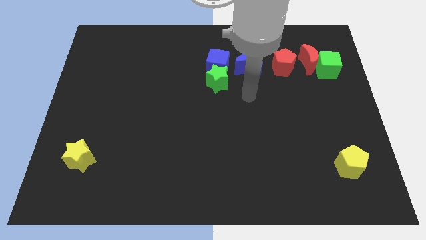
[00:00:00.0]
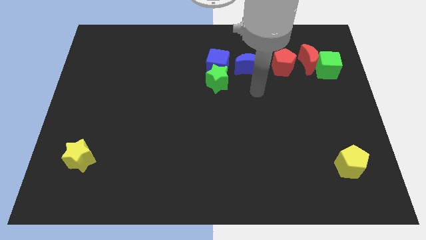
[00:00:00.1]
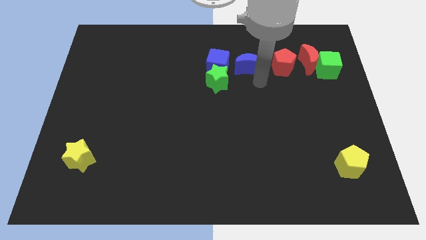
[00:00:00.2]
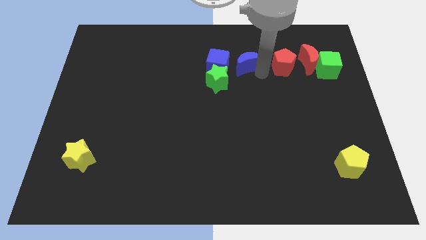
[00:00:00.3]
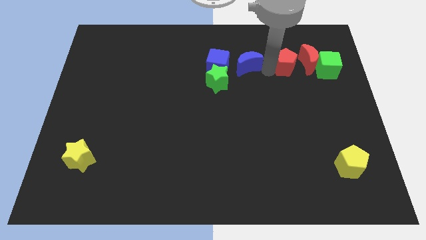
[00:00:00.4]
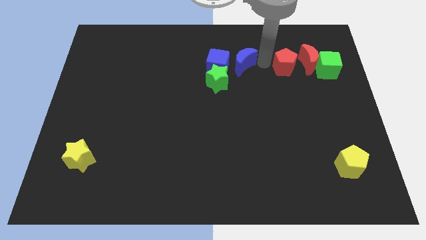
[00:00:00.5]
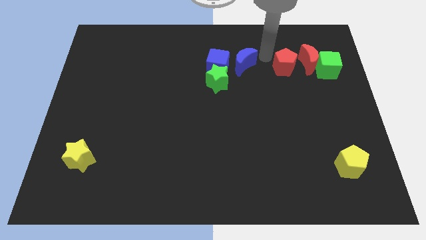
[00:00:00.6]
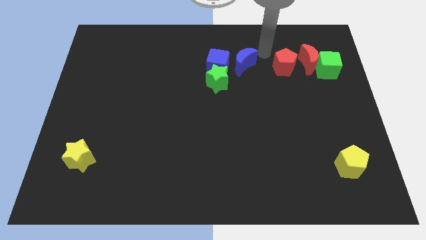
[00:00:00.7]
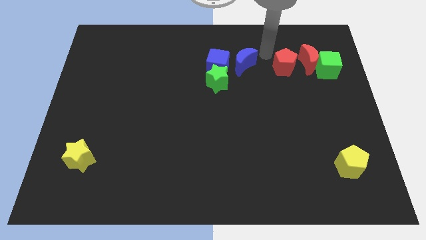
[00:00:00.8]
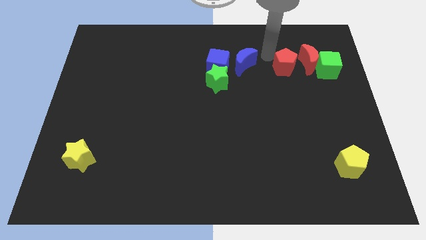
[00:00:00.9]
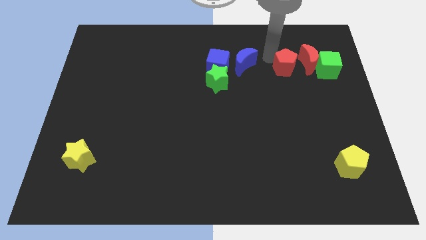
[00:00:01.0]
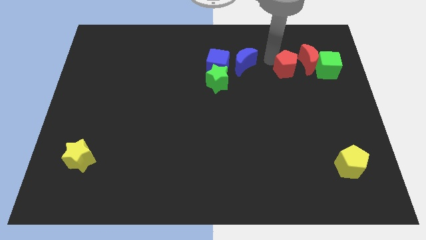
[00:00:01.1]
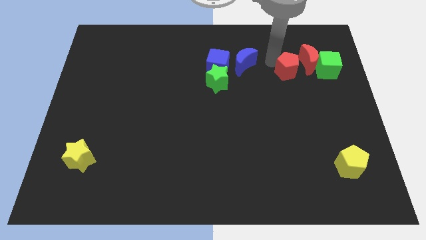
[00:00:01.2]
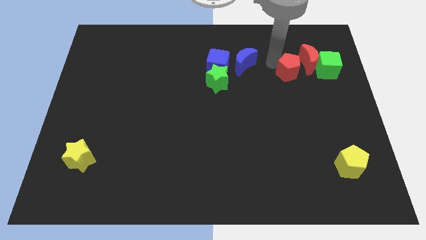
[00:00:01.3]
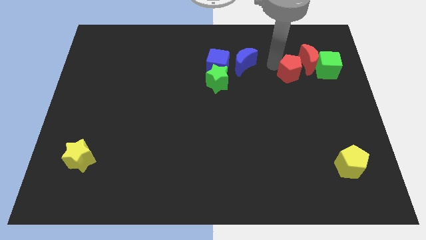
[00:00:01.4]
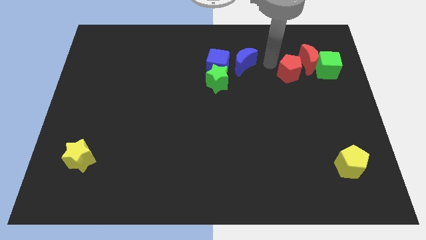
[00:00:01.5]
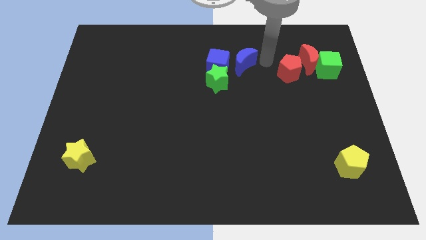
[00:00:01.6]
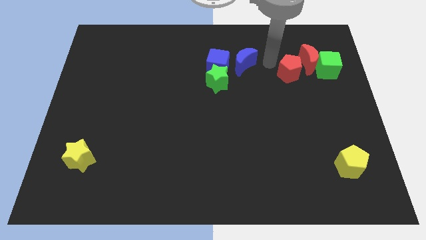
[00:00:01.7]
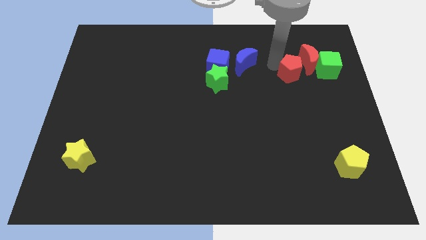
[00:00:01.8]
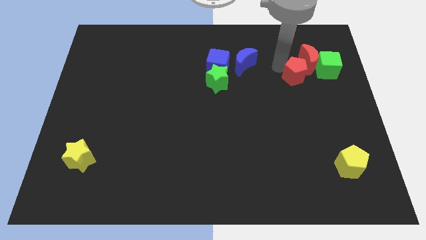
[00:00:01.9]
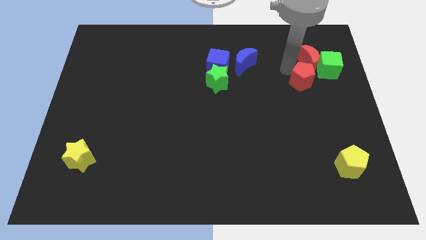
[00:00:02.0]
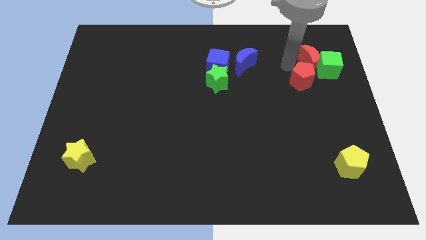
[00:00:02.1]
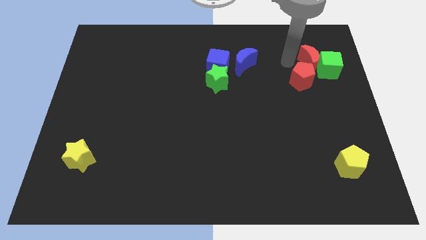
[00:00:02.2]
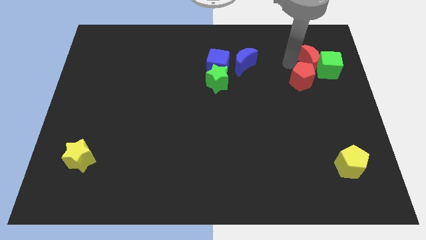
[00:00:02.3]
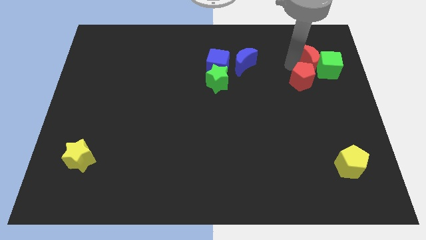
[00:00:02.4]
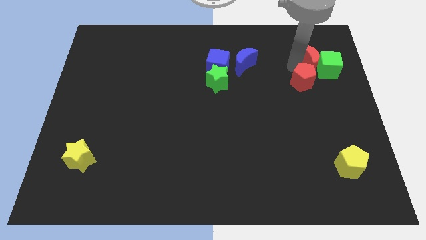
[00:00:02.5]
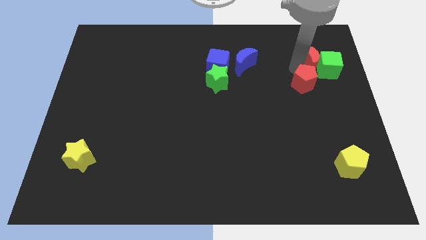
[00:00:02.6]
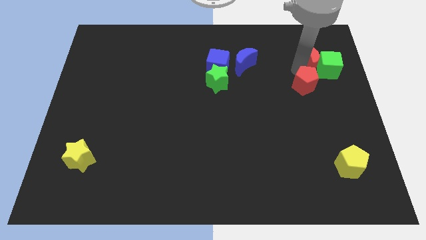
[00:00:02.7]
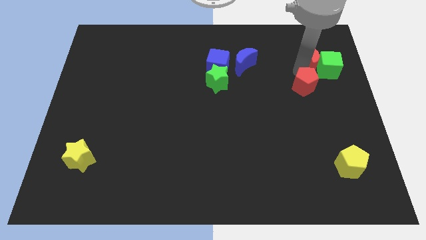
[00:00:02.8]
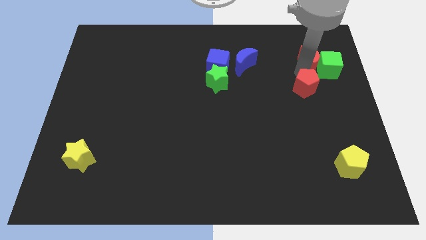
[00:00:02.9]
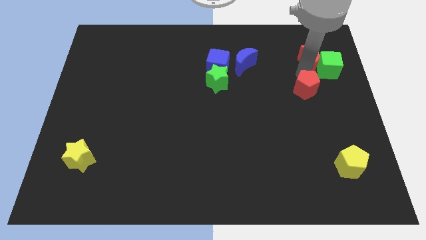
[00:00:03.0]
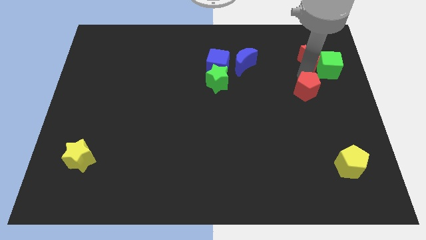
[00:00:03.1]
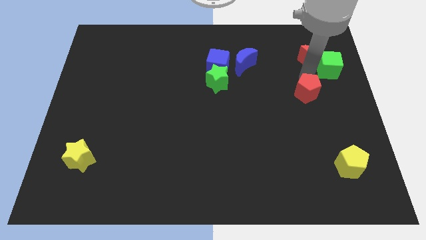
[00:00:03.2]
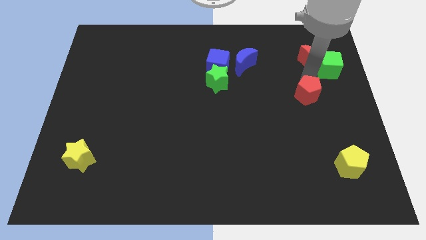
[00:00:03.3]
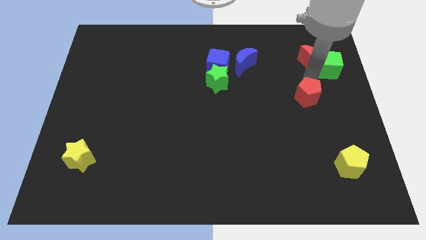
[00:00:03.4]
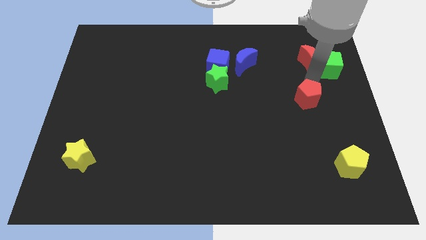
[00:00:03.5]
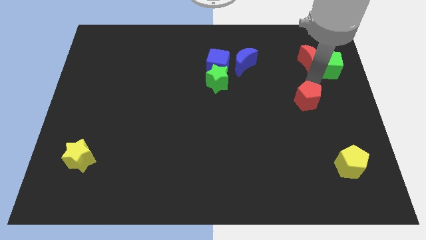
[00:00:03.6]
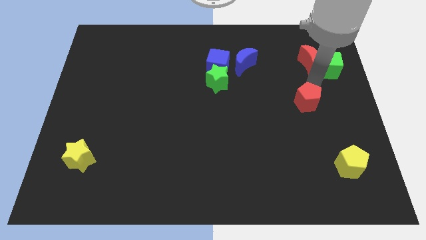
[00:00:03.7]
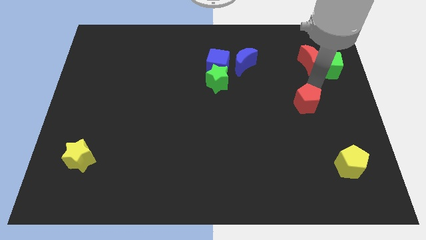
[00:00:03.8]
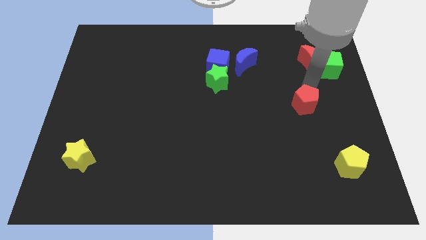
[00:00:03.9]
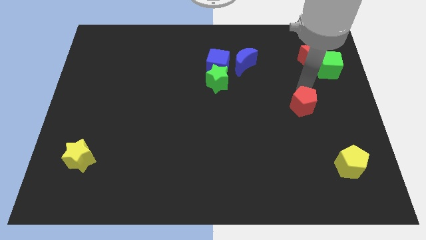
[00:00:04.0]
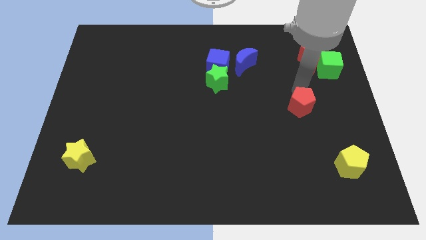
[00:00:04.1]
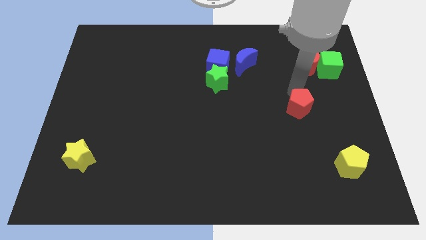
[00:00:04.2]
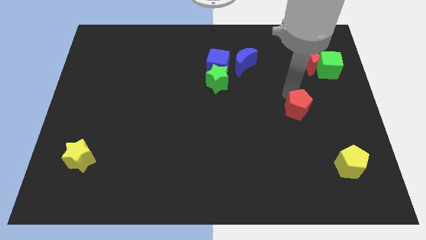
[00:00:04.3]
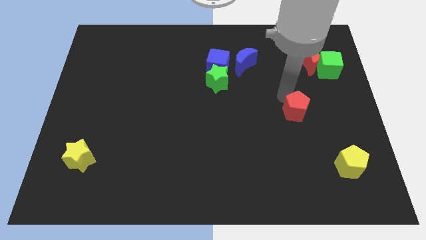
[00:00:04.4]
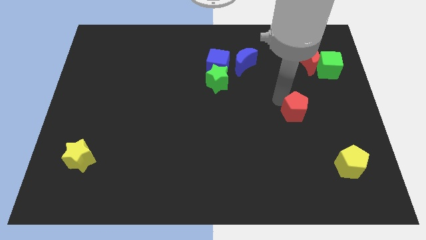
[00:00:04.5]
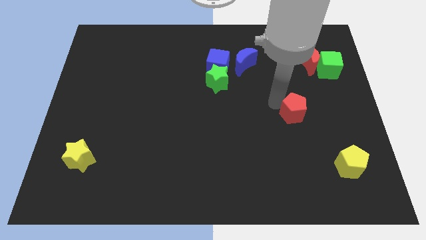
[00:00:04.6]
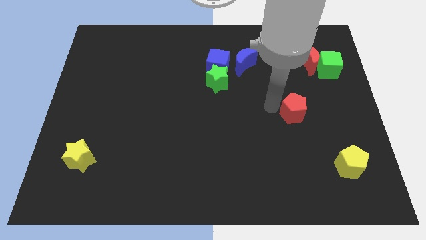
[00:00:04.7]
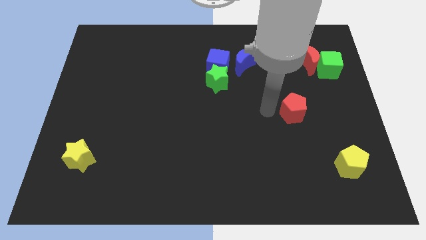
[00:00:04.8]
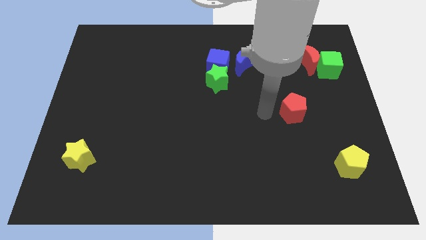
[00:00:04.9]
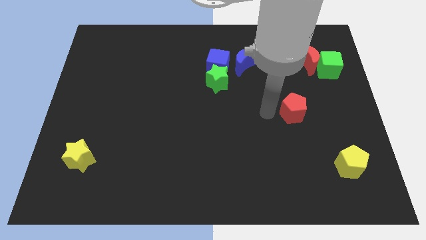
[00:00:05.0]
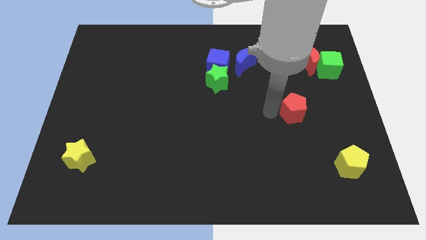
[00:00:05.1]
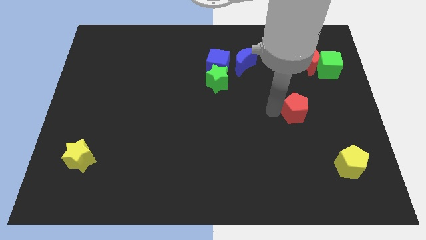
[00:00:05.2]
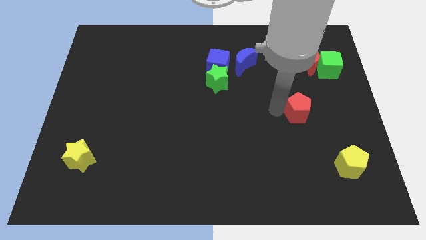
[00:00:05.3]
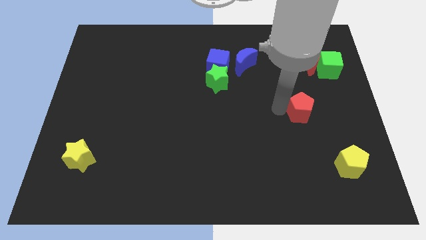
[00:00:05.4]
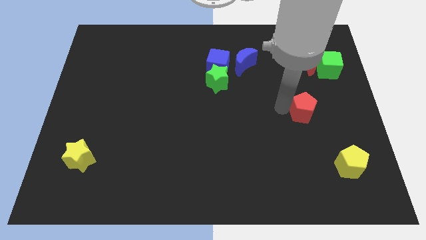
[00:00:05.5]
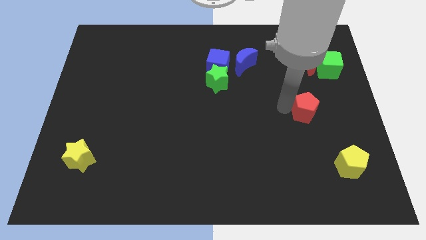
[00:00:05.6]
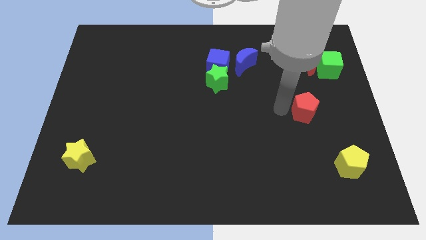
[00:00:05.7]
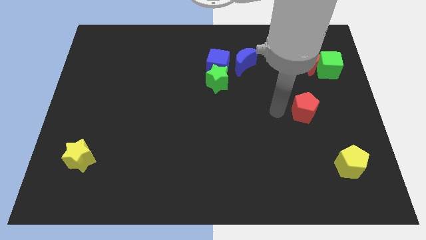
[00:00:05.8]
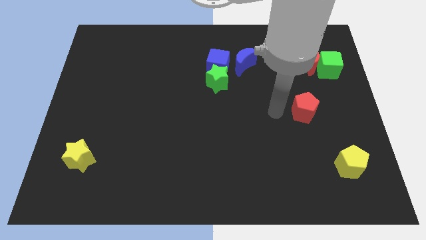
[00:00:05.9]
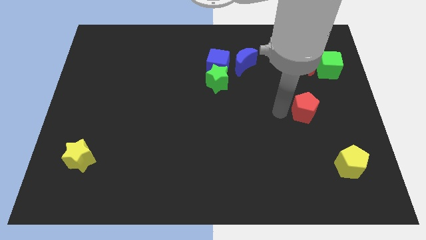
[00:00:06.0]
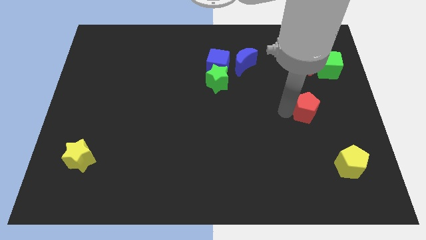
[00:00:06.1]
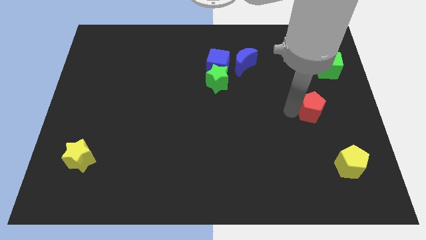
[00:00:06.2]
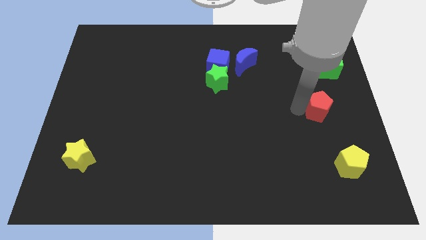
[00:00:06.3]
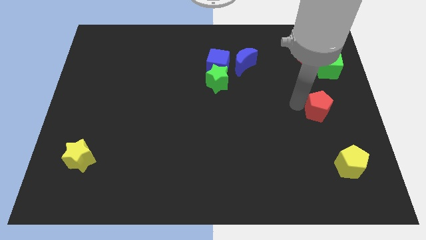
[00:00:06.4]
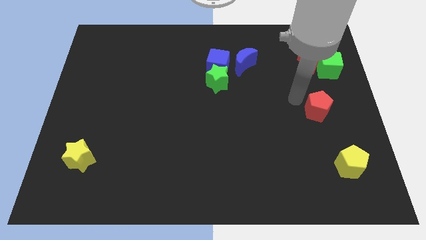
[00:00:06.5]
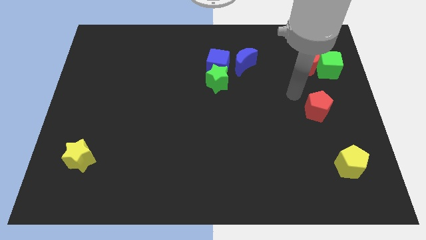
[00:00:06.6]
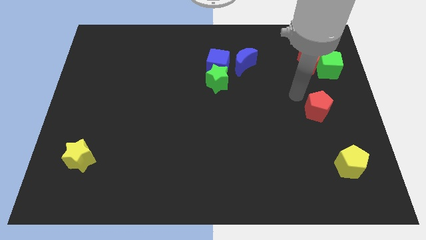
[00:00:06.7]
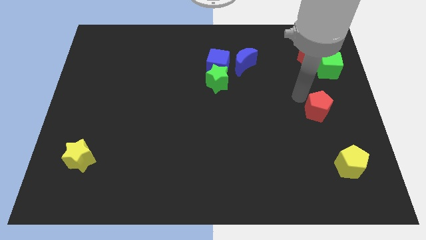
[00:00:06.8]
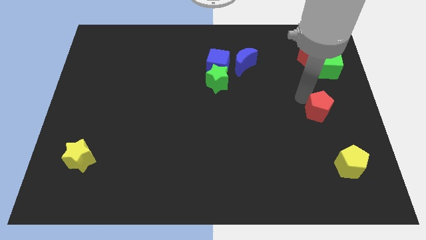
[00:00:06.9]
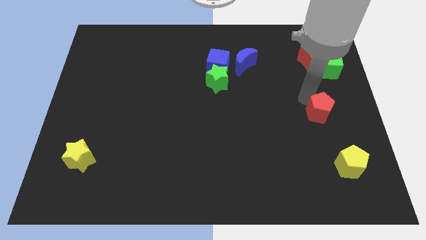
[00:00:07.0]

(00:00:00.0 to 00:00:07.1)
put the red pentagon to the top side of the yellow pentagon

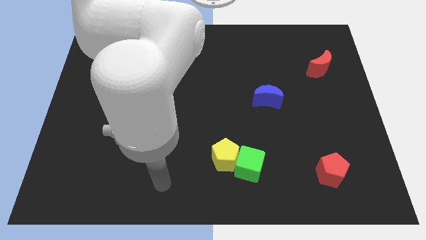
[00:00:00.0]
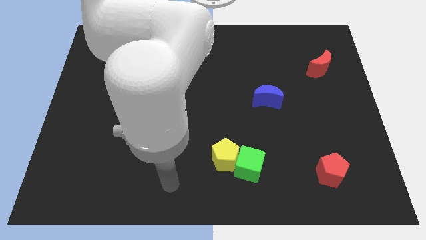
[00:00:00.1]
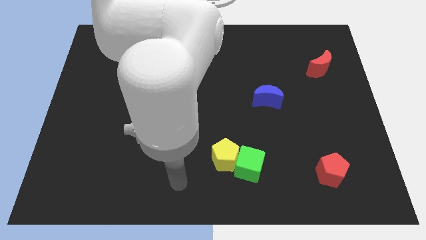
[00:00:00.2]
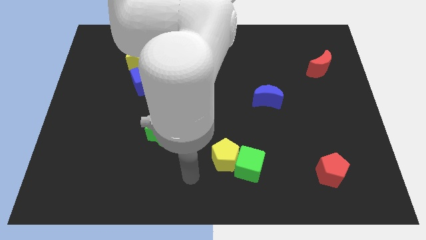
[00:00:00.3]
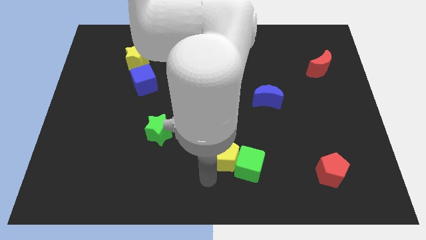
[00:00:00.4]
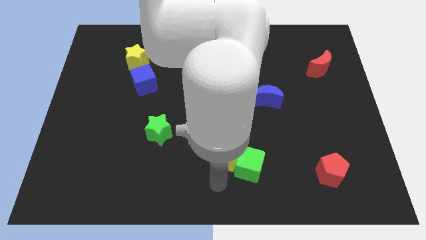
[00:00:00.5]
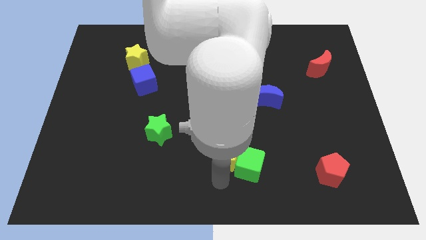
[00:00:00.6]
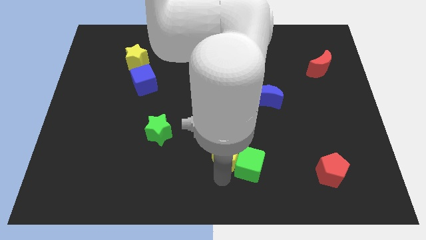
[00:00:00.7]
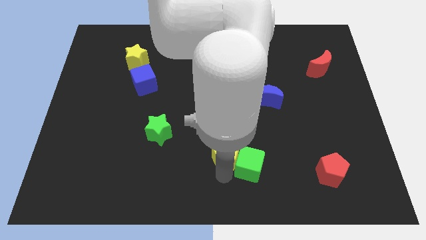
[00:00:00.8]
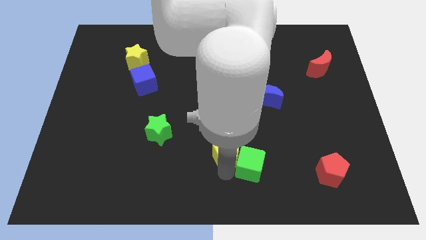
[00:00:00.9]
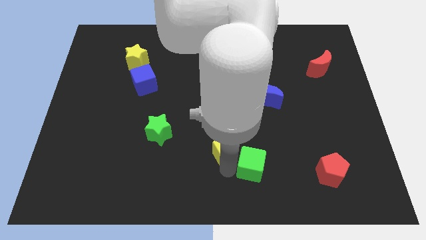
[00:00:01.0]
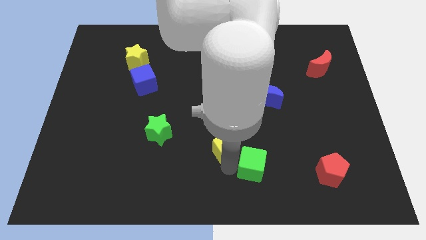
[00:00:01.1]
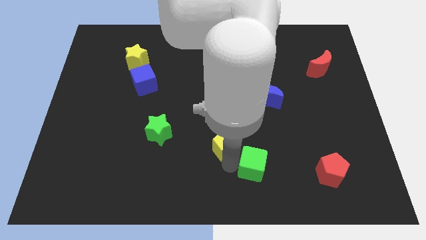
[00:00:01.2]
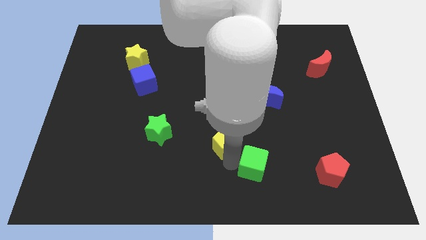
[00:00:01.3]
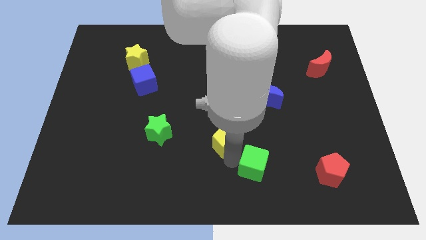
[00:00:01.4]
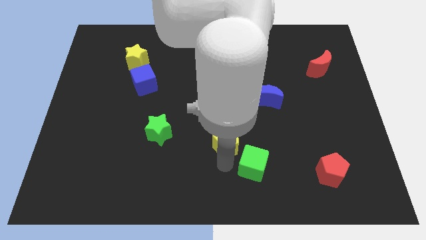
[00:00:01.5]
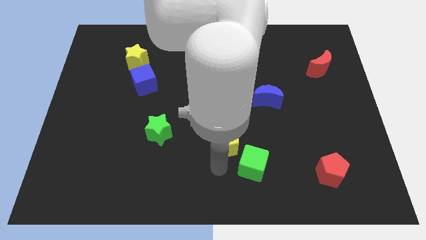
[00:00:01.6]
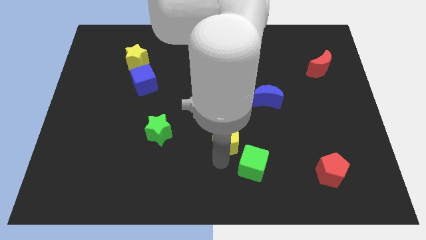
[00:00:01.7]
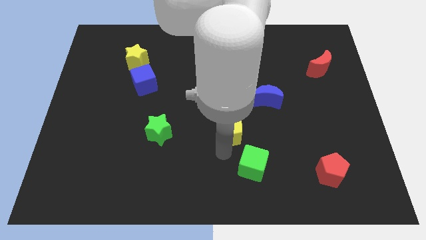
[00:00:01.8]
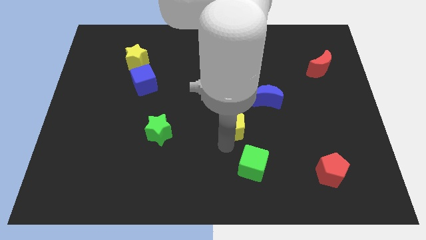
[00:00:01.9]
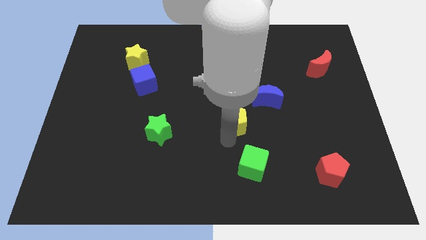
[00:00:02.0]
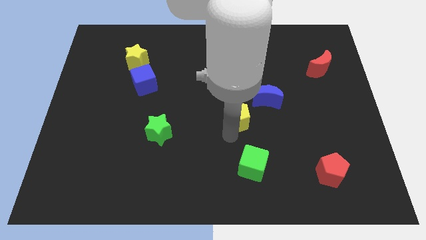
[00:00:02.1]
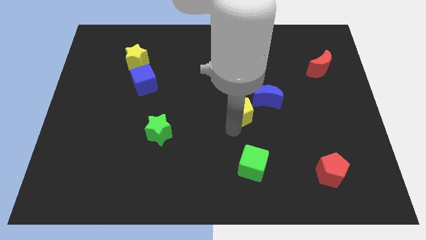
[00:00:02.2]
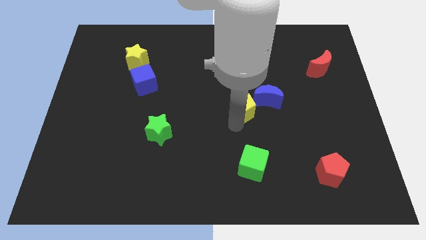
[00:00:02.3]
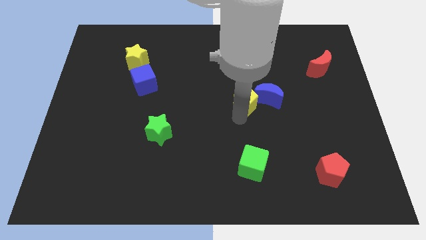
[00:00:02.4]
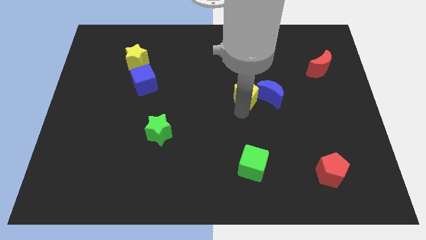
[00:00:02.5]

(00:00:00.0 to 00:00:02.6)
move the yellow pentagon to the top left side of the blue moon
